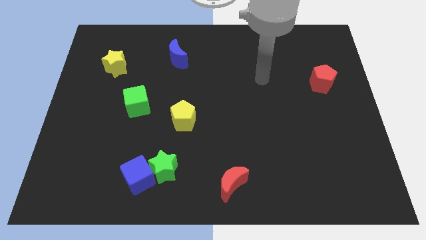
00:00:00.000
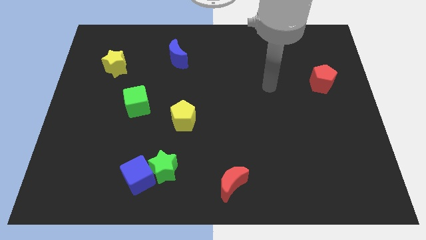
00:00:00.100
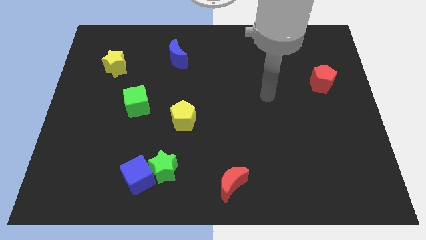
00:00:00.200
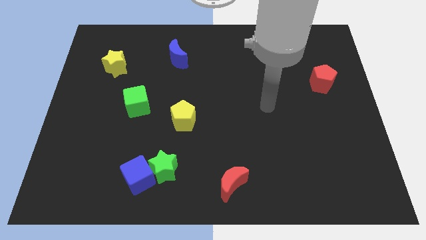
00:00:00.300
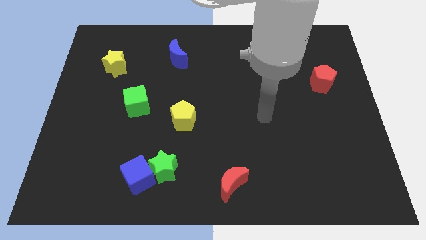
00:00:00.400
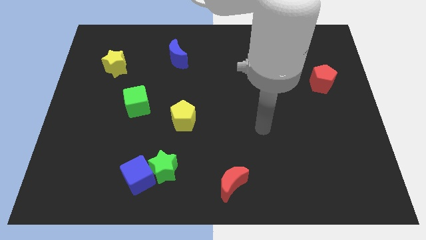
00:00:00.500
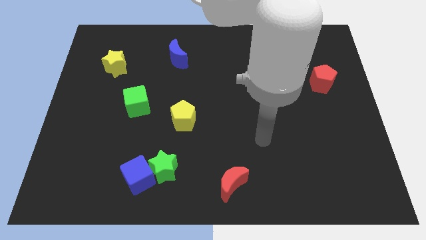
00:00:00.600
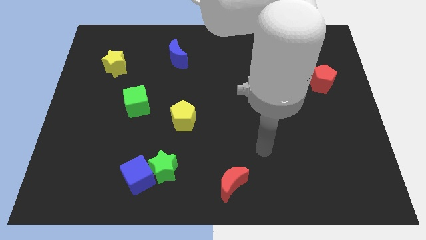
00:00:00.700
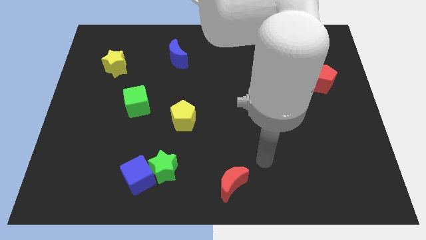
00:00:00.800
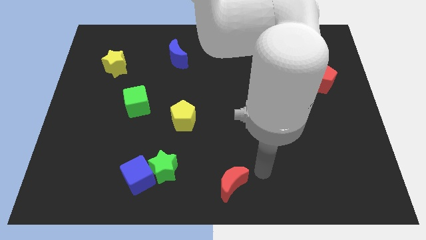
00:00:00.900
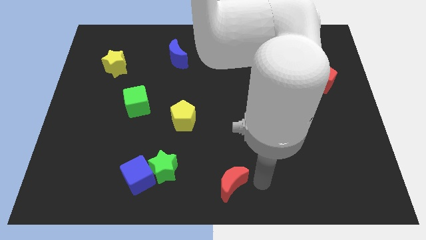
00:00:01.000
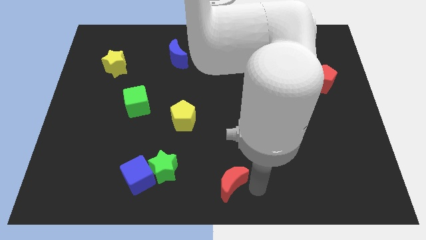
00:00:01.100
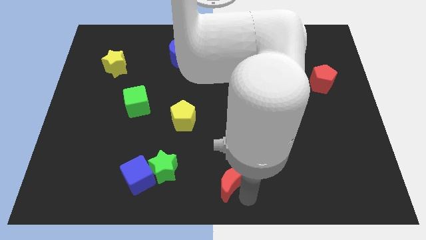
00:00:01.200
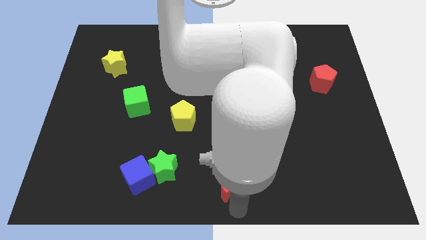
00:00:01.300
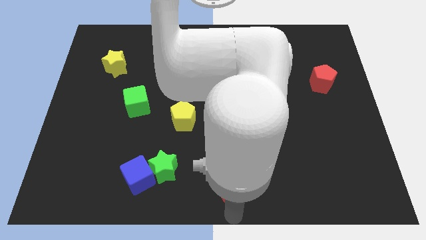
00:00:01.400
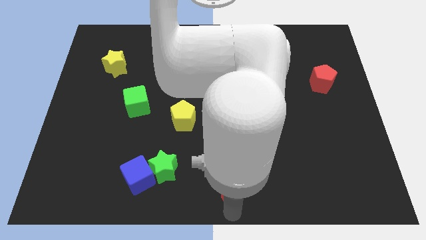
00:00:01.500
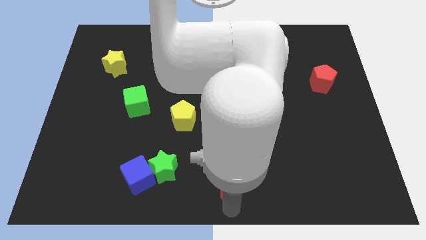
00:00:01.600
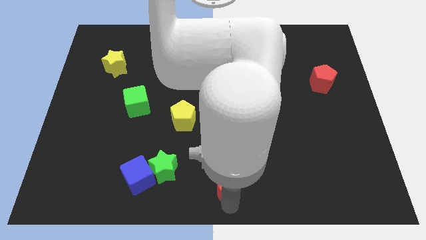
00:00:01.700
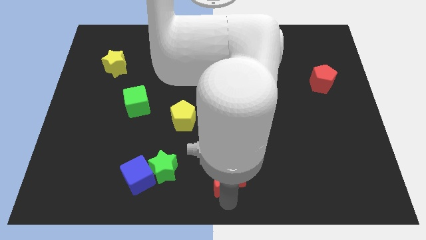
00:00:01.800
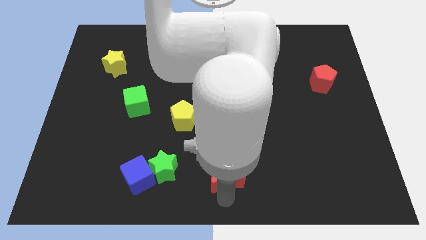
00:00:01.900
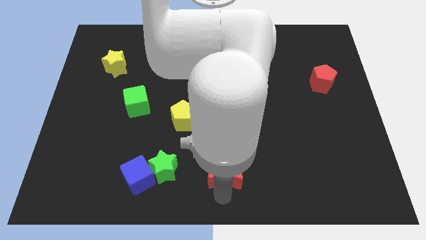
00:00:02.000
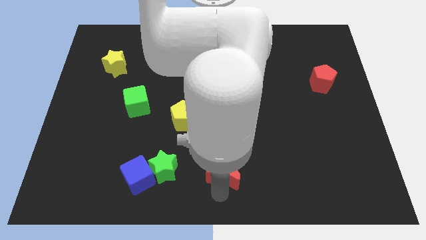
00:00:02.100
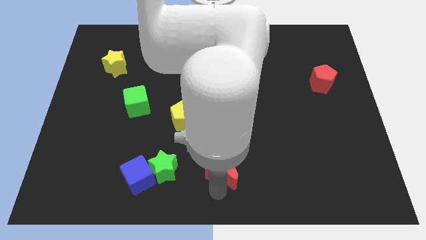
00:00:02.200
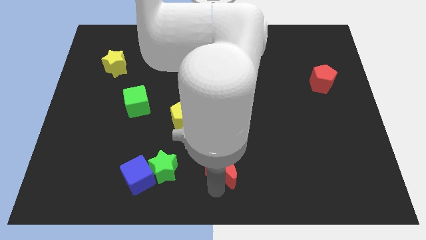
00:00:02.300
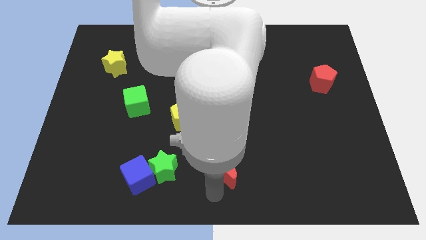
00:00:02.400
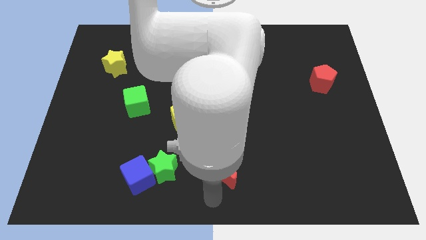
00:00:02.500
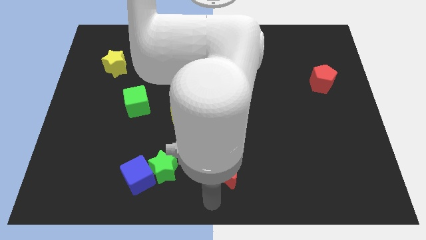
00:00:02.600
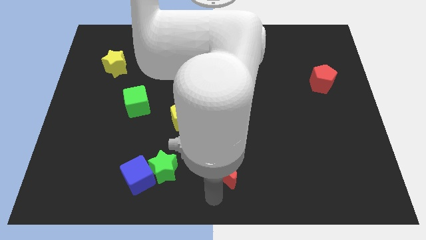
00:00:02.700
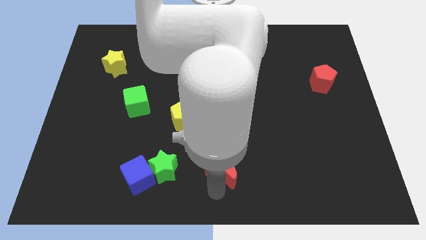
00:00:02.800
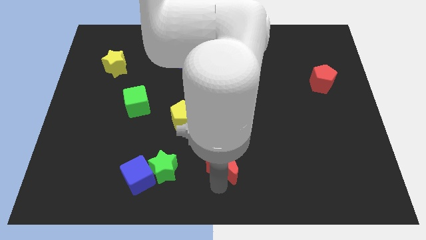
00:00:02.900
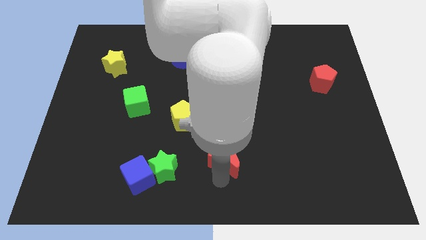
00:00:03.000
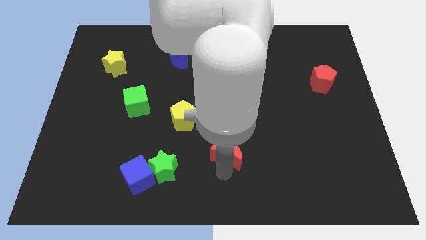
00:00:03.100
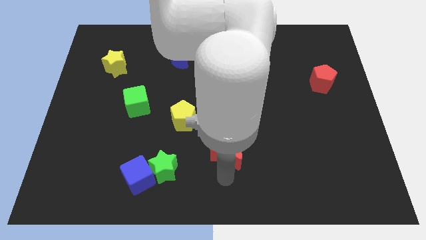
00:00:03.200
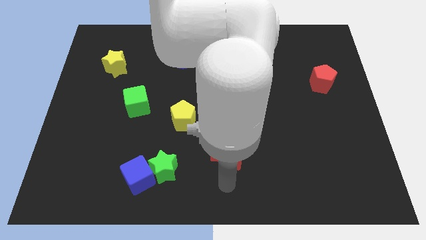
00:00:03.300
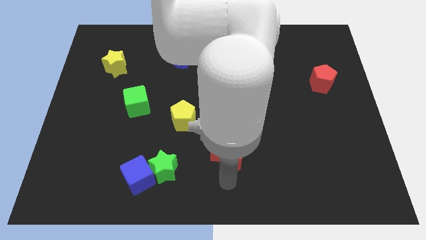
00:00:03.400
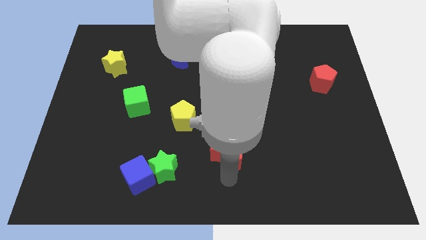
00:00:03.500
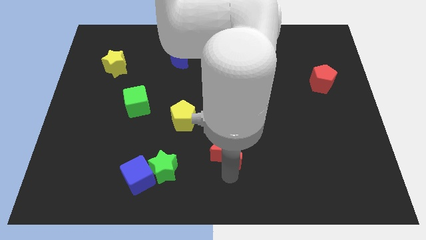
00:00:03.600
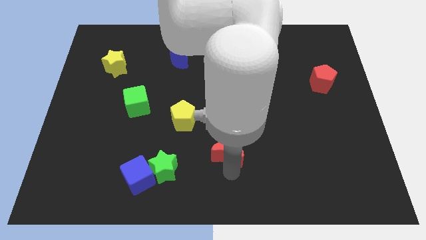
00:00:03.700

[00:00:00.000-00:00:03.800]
push the red moon upwards a bit

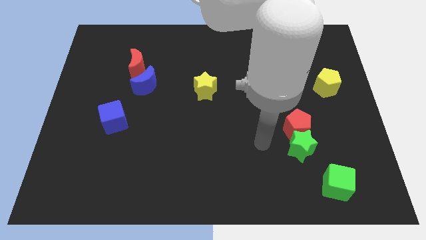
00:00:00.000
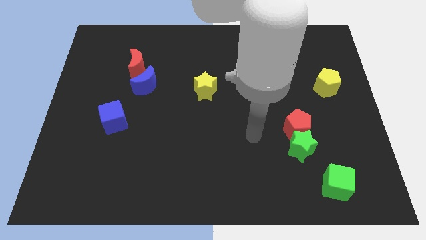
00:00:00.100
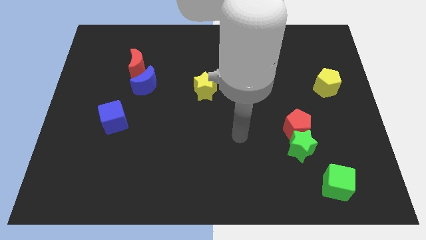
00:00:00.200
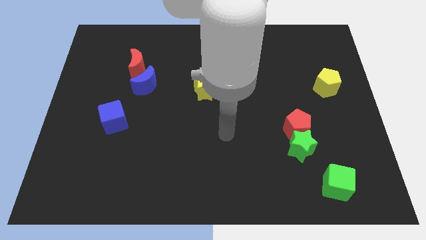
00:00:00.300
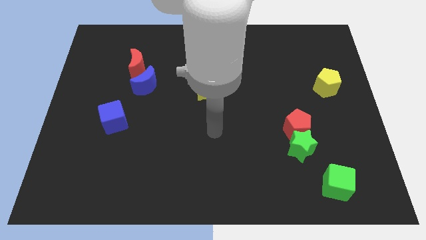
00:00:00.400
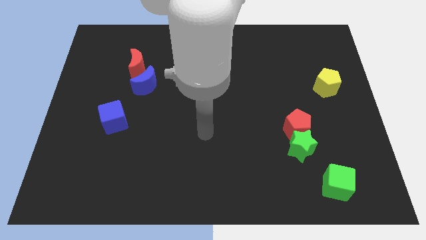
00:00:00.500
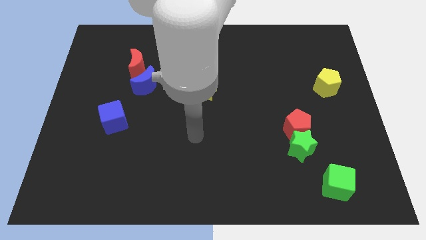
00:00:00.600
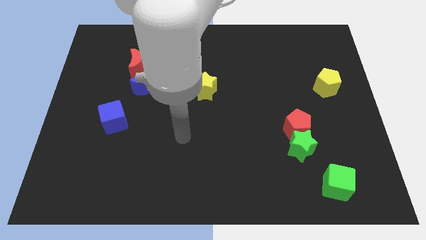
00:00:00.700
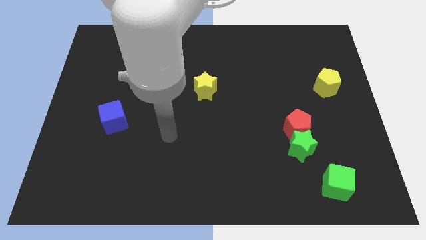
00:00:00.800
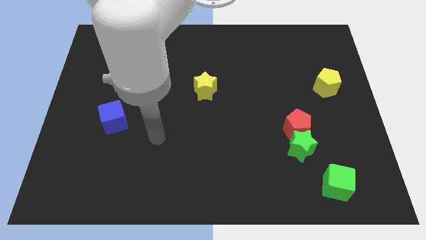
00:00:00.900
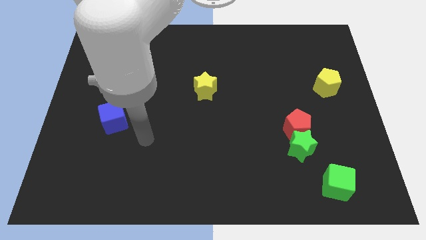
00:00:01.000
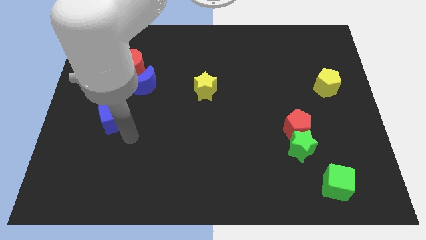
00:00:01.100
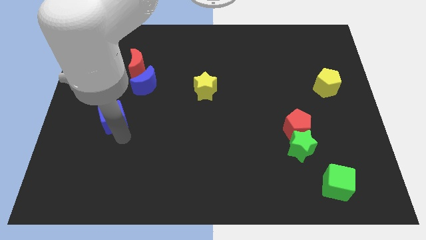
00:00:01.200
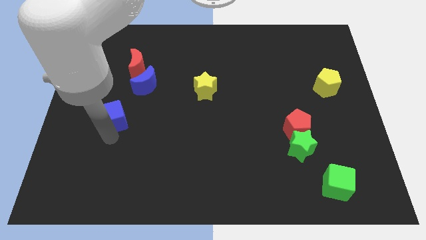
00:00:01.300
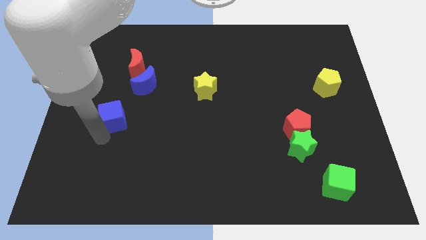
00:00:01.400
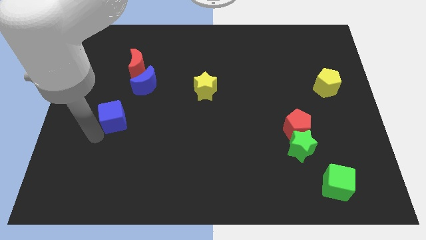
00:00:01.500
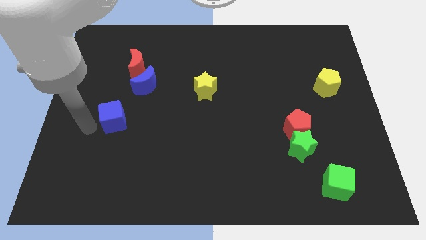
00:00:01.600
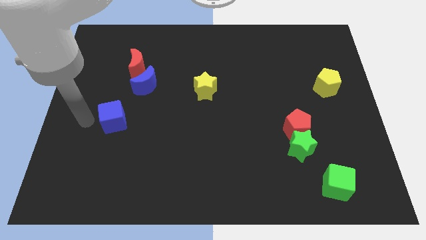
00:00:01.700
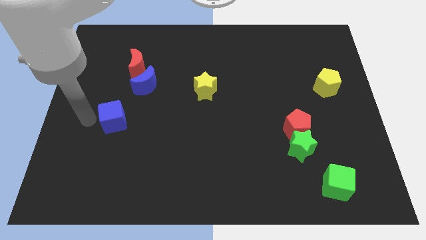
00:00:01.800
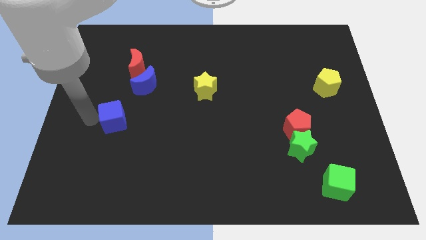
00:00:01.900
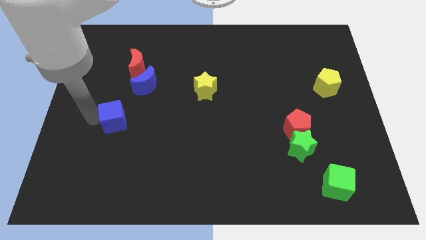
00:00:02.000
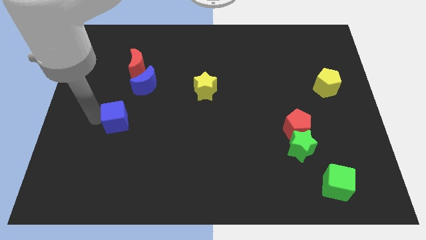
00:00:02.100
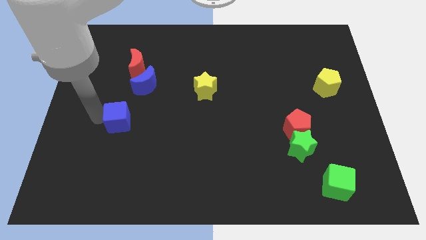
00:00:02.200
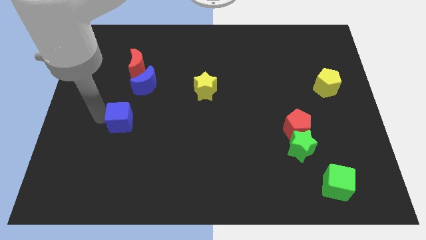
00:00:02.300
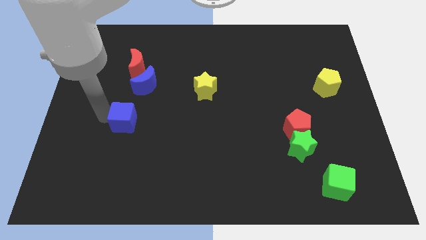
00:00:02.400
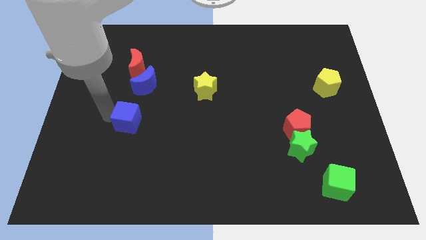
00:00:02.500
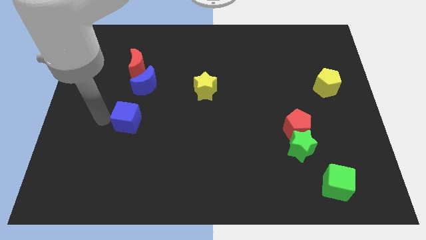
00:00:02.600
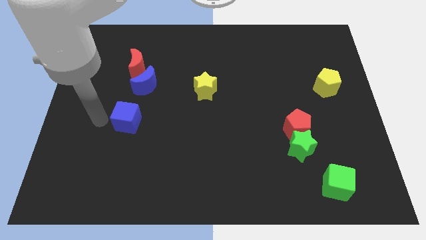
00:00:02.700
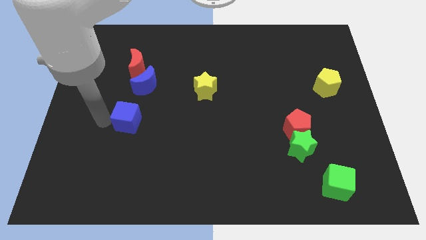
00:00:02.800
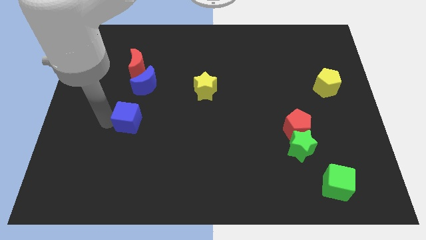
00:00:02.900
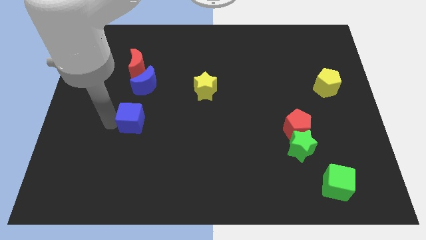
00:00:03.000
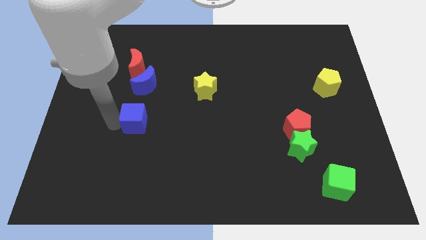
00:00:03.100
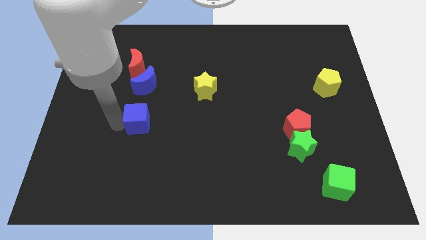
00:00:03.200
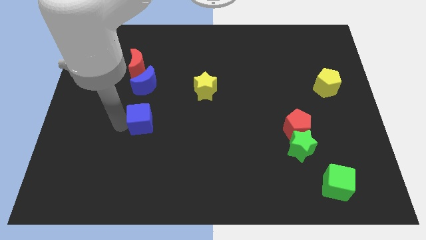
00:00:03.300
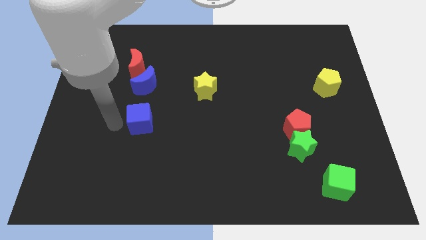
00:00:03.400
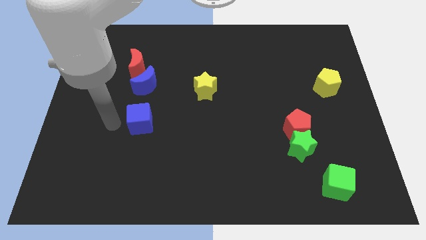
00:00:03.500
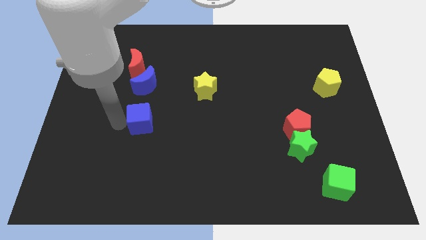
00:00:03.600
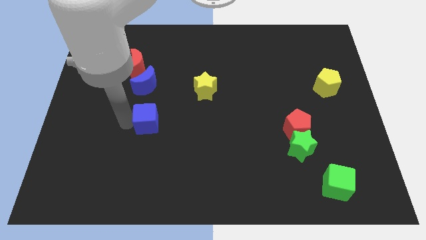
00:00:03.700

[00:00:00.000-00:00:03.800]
slightly slide the blue cube to the right

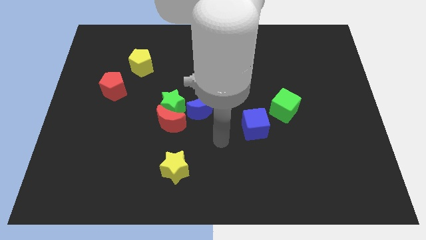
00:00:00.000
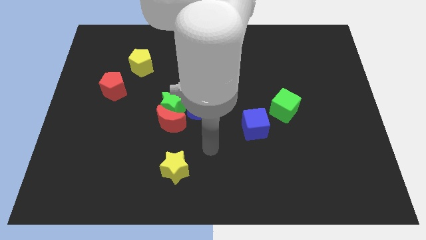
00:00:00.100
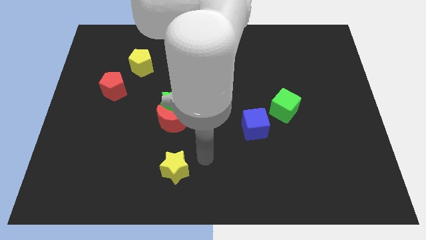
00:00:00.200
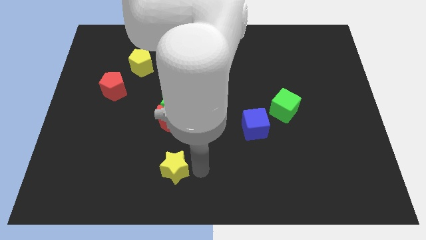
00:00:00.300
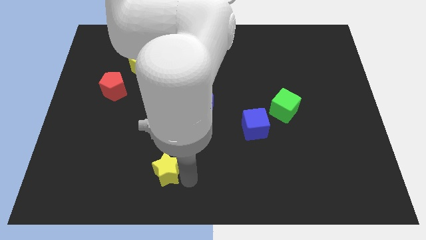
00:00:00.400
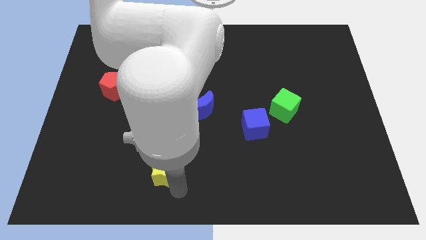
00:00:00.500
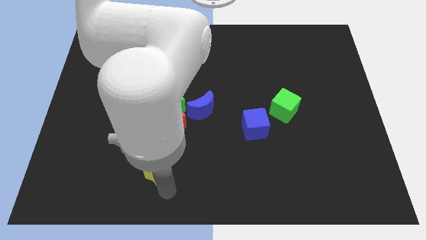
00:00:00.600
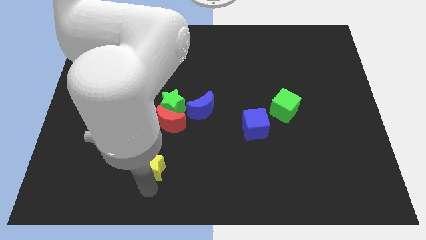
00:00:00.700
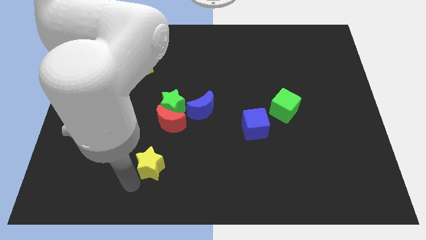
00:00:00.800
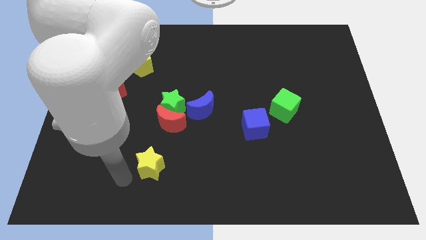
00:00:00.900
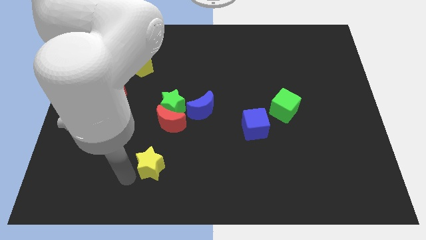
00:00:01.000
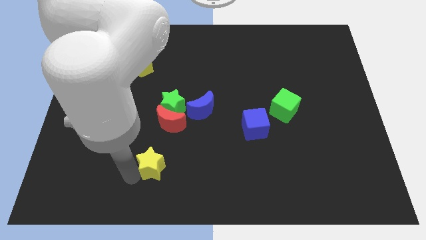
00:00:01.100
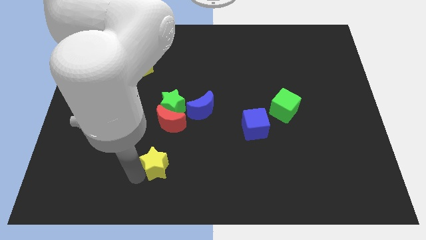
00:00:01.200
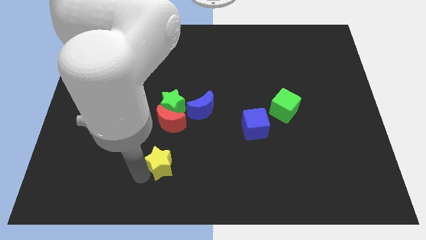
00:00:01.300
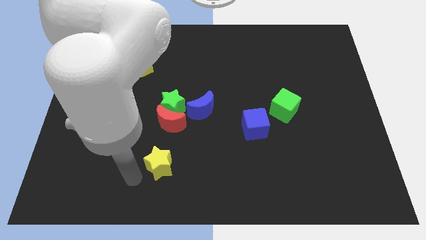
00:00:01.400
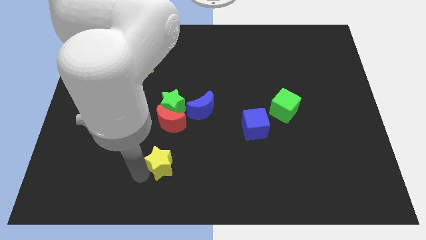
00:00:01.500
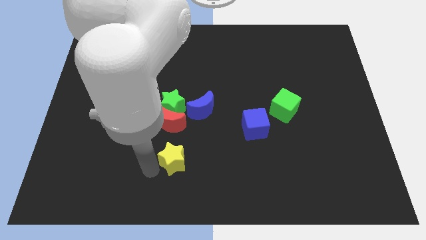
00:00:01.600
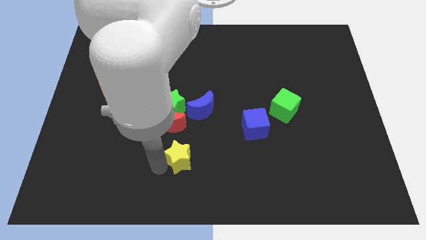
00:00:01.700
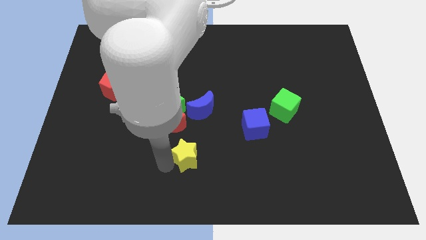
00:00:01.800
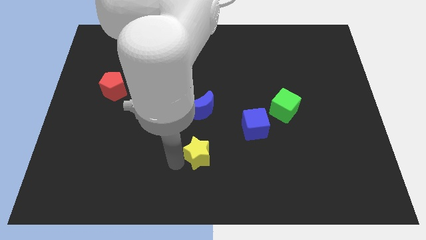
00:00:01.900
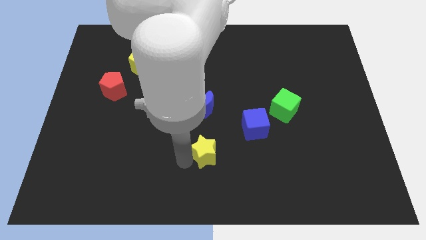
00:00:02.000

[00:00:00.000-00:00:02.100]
push the yellow star upwards and then right slightly
